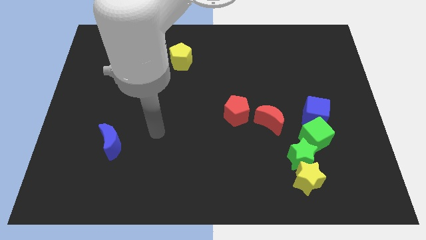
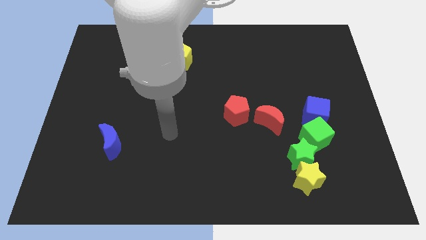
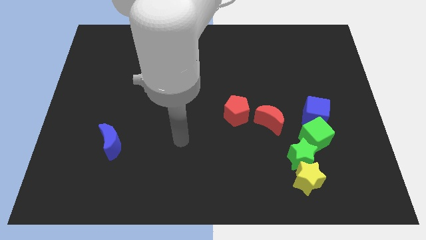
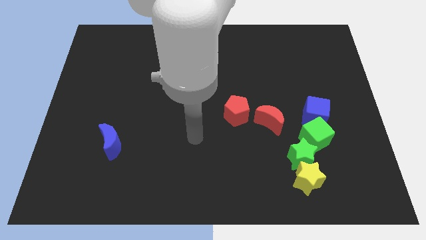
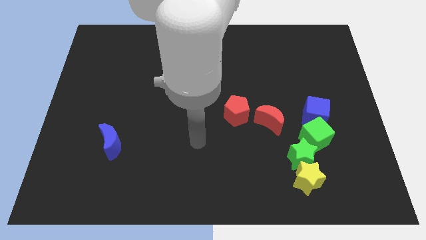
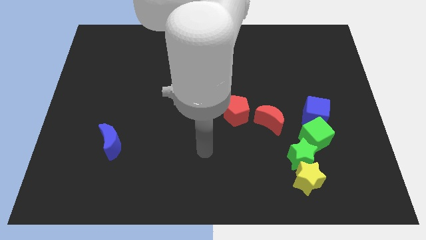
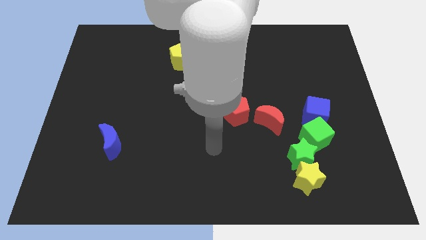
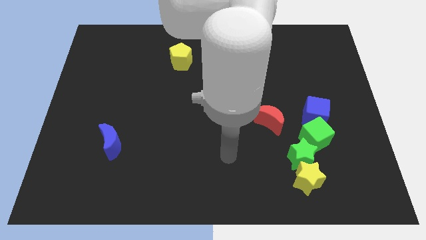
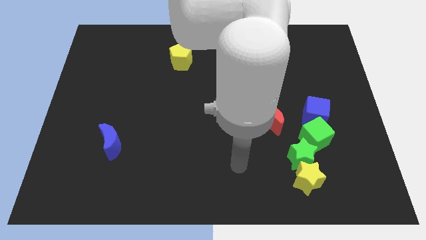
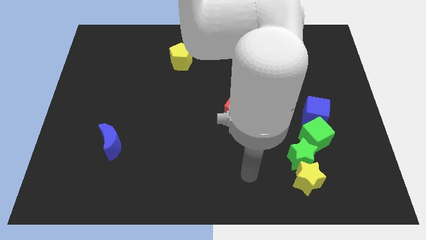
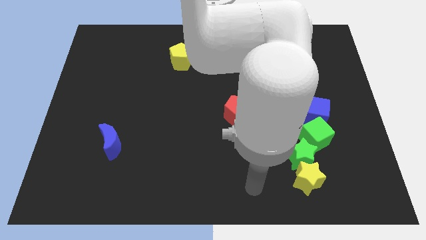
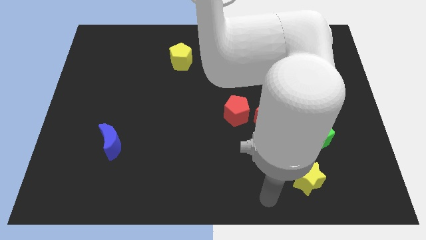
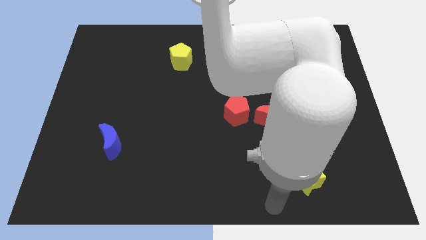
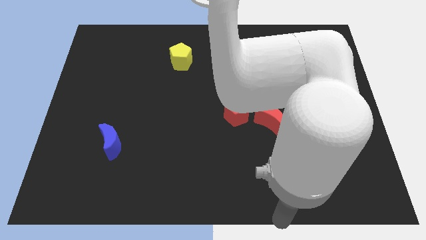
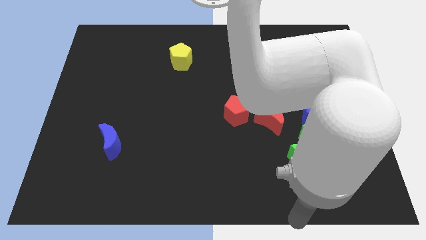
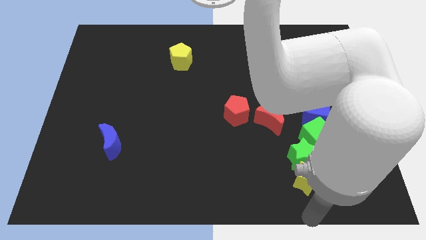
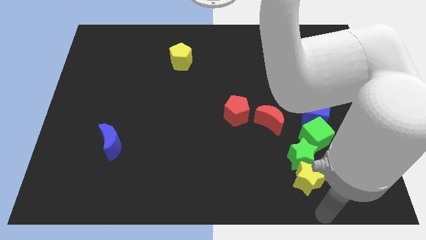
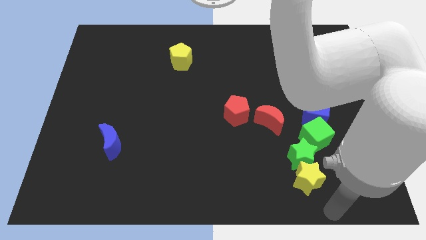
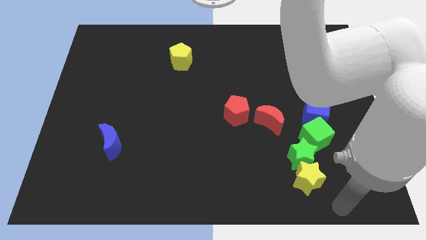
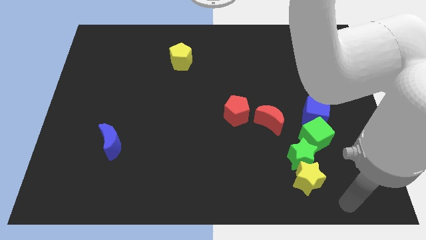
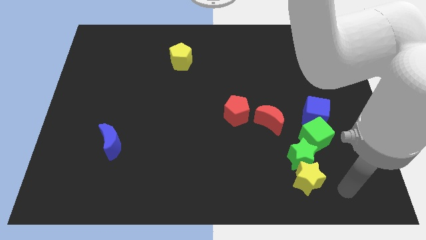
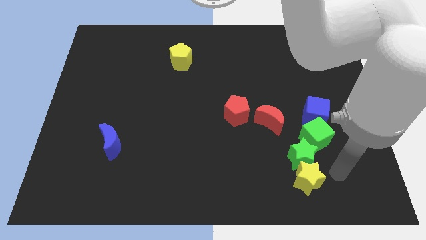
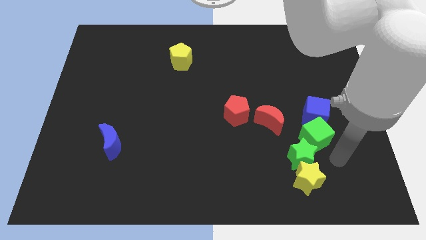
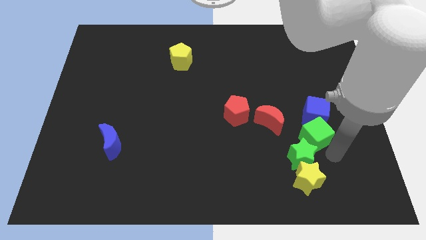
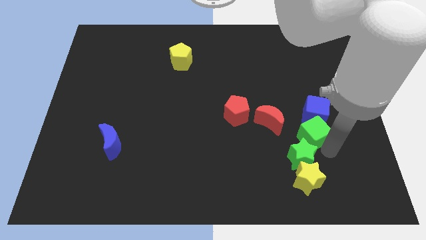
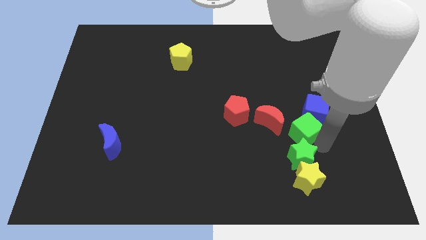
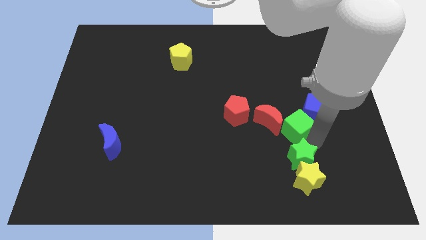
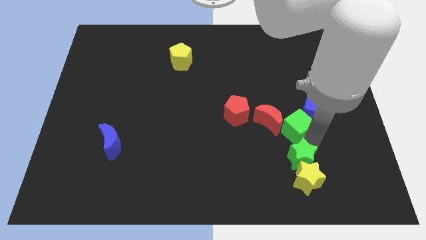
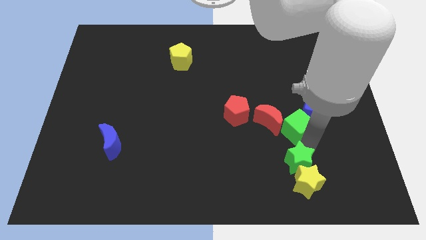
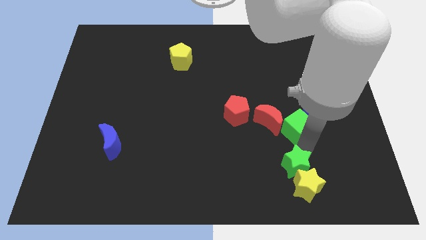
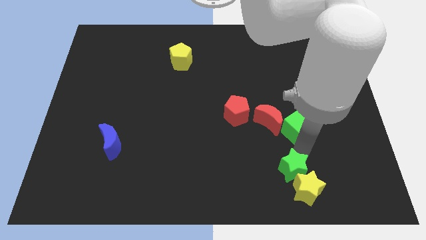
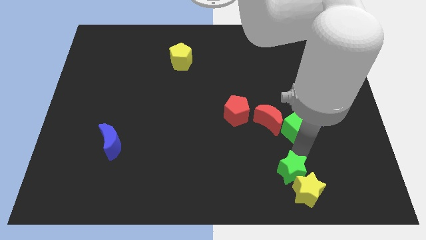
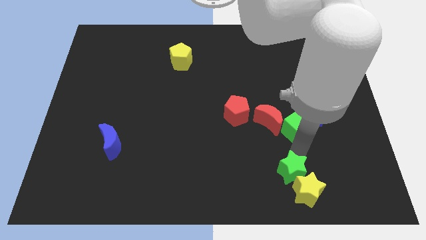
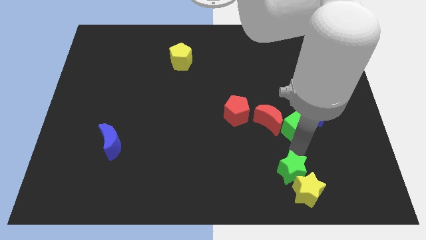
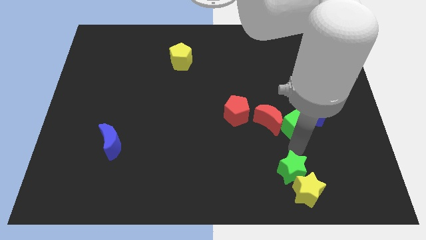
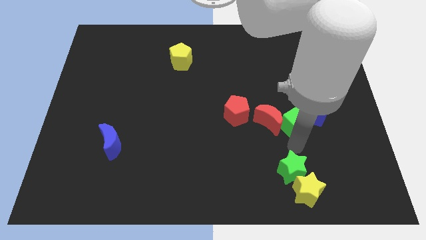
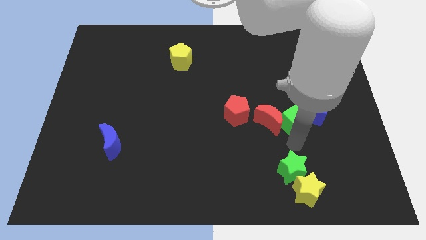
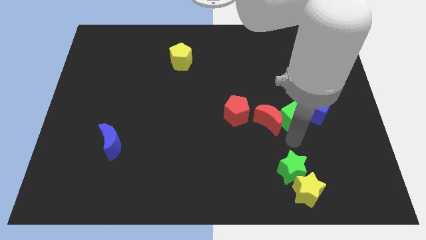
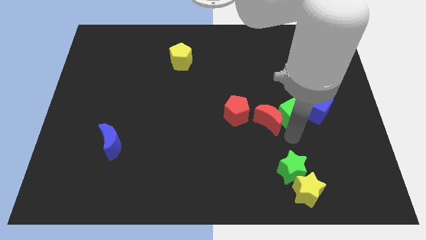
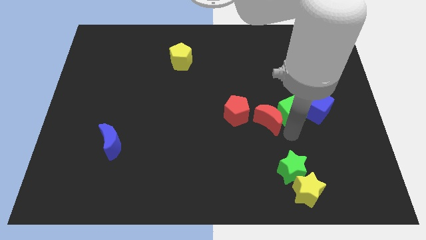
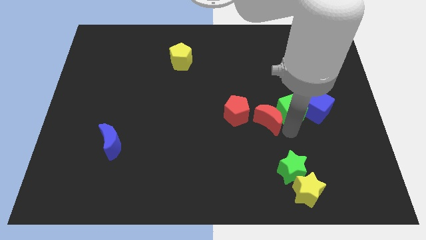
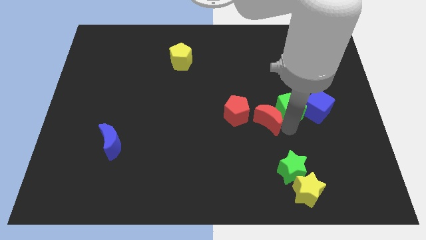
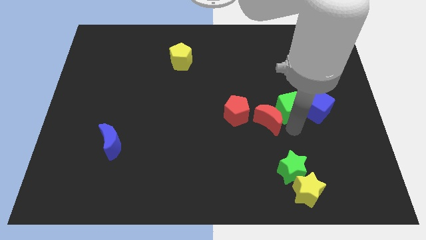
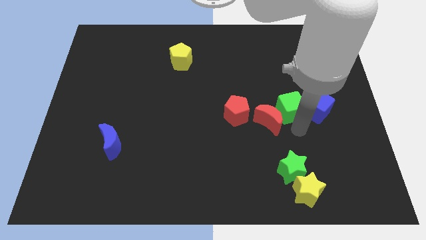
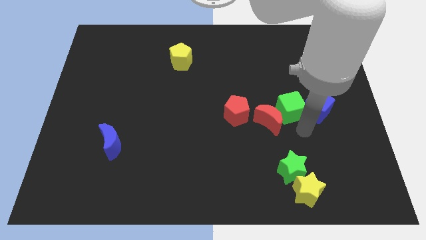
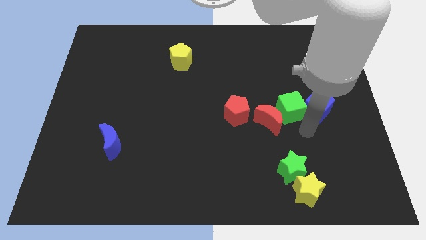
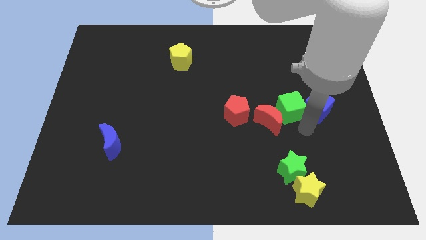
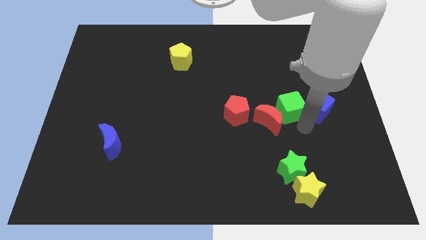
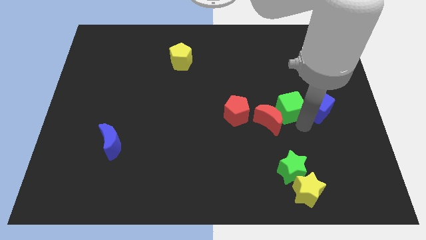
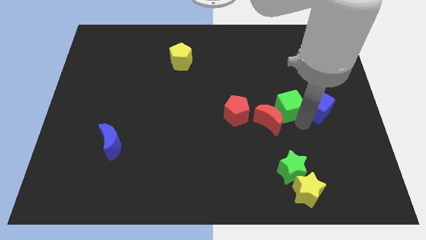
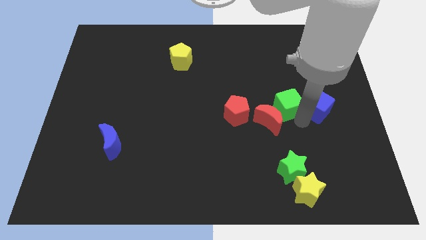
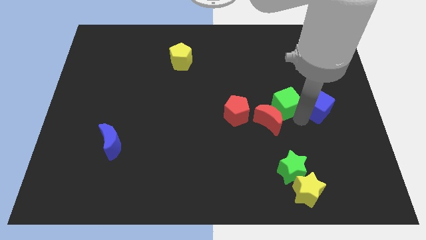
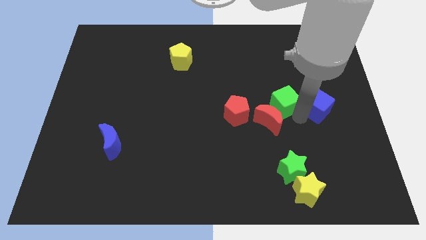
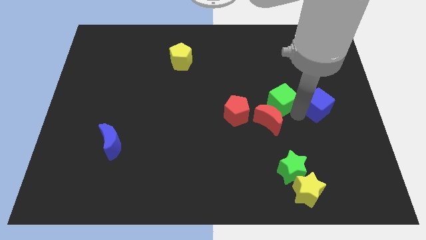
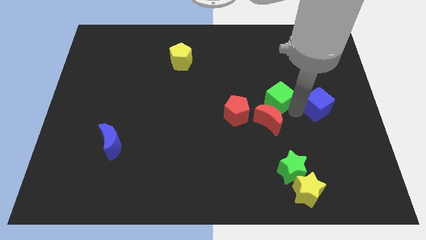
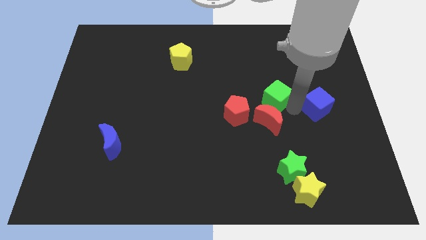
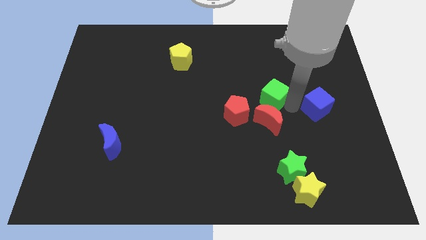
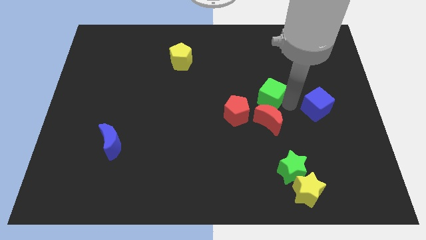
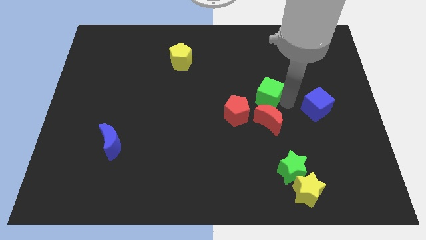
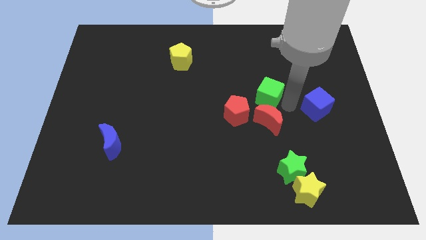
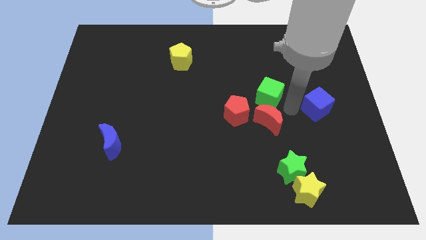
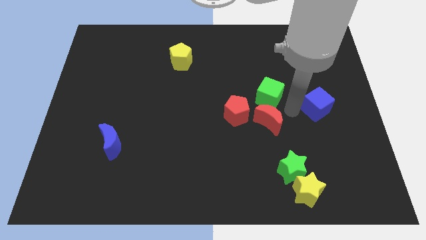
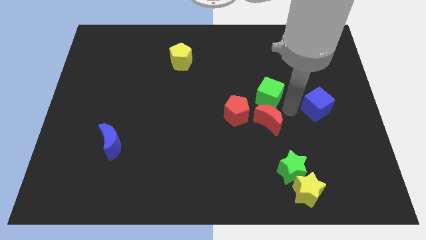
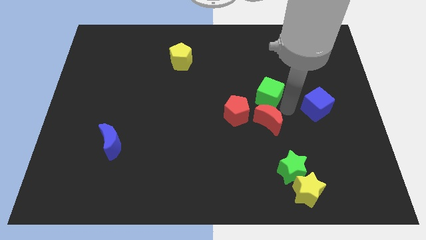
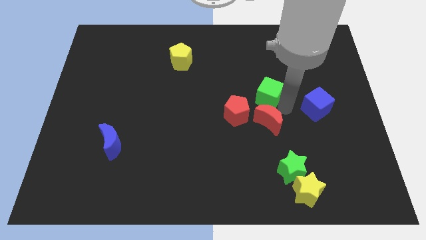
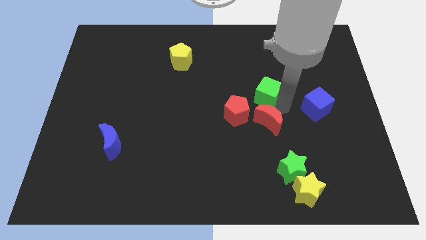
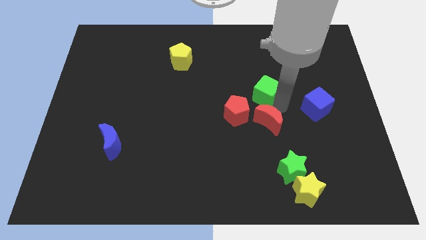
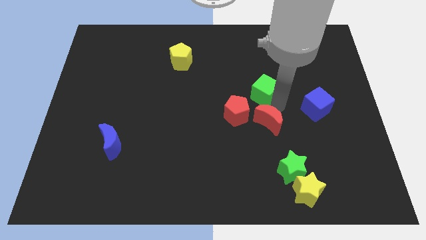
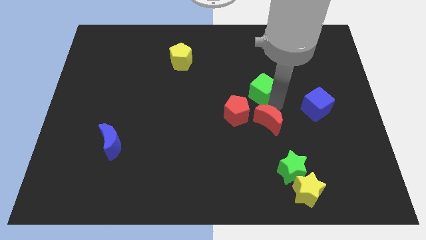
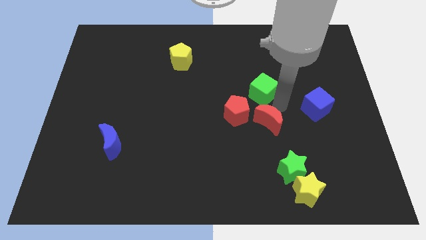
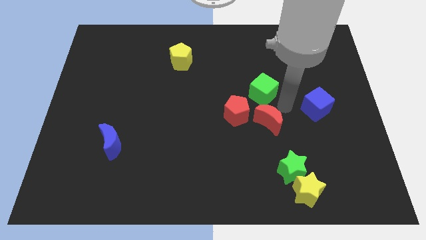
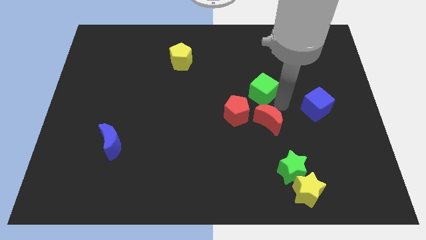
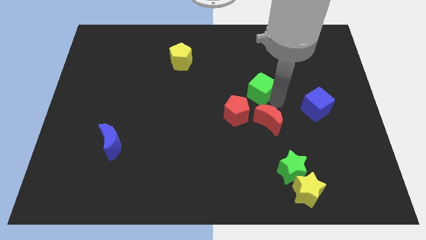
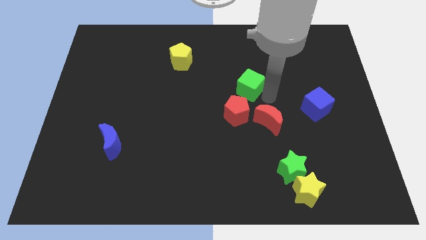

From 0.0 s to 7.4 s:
slide the green cube upwards and to the left

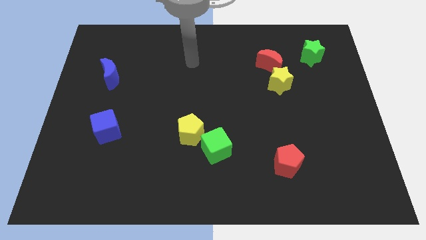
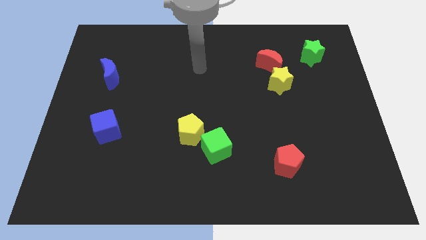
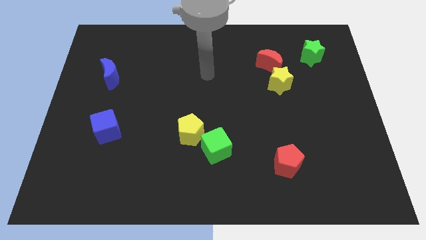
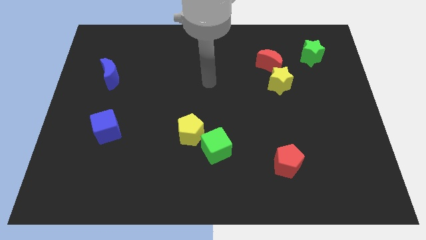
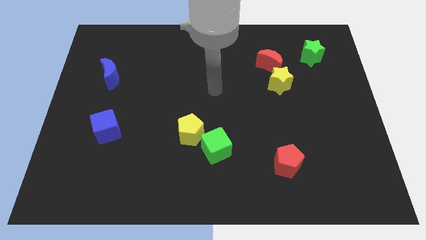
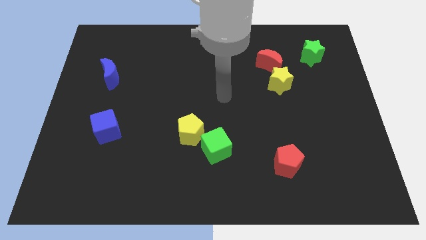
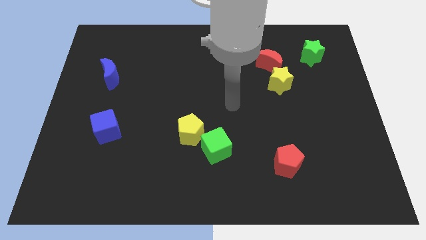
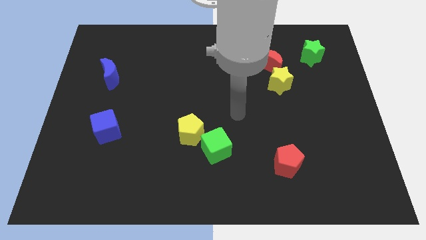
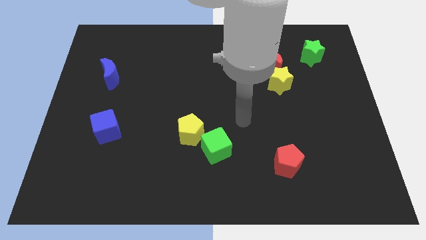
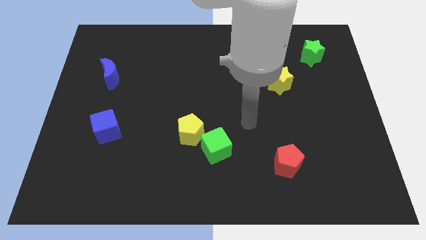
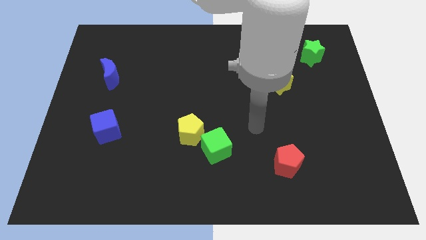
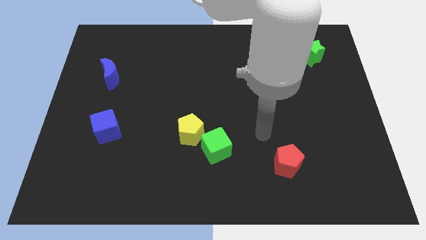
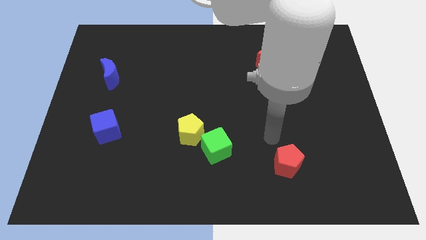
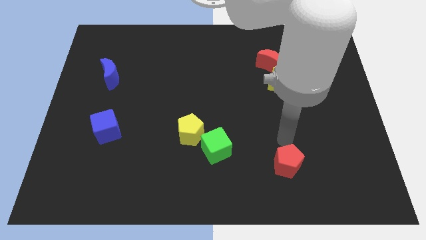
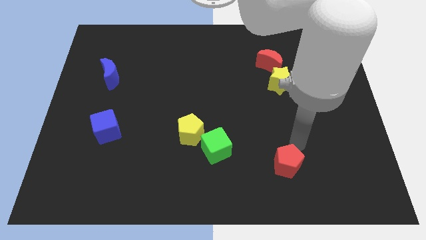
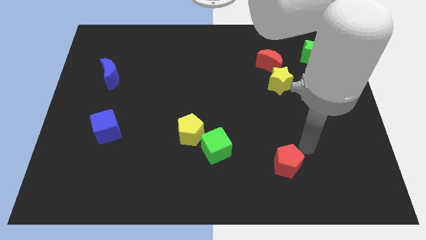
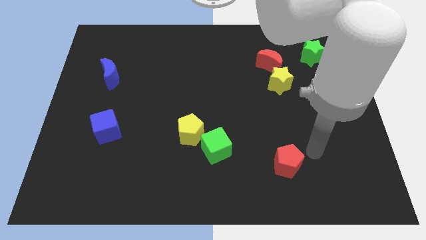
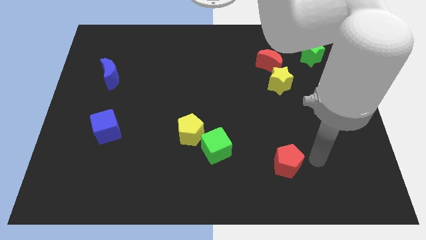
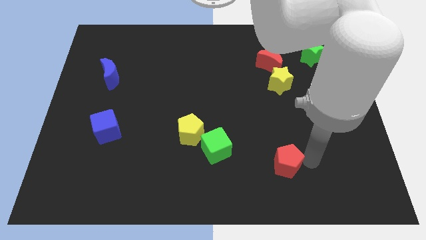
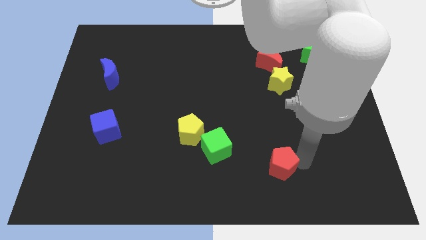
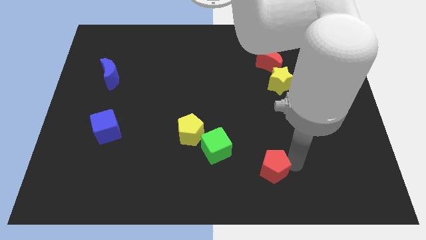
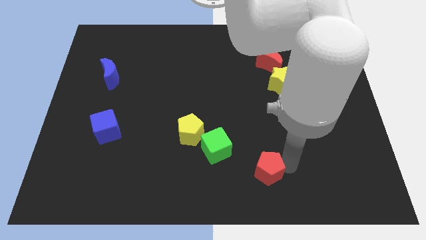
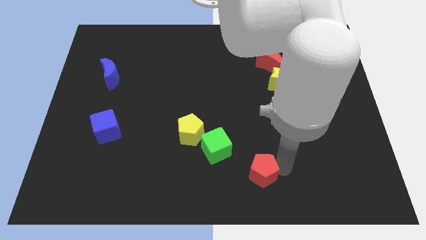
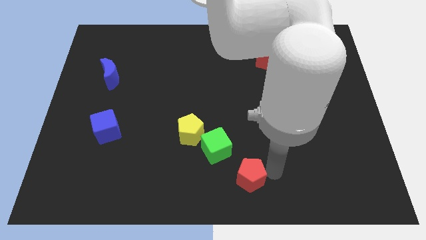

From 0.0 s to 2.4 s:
push the red pentagon left a bit
